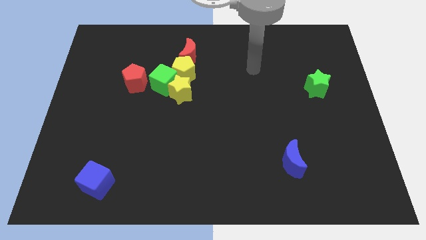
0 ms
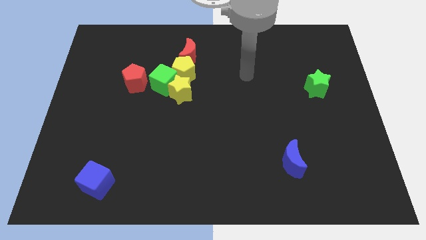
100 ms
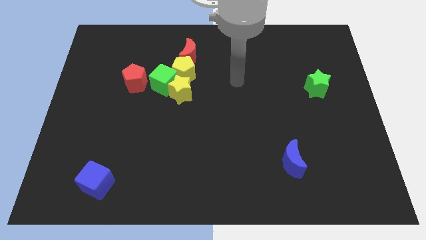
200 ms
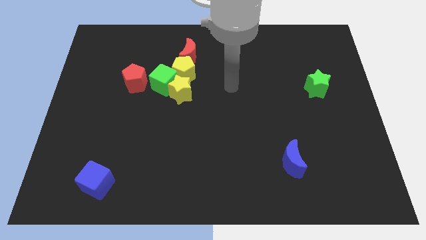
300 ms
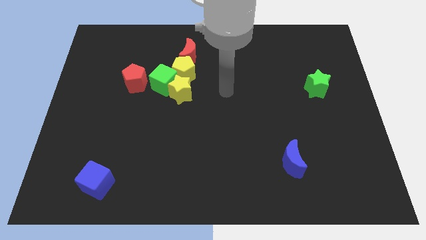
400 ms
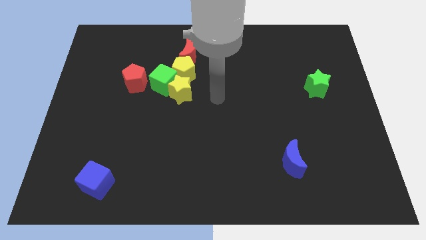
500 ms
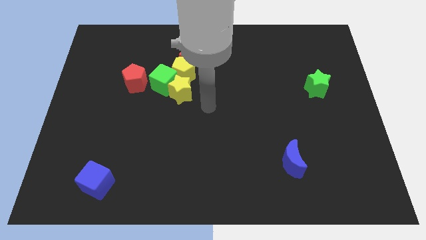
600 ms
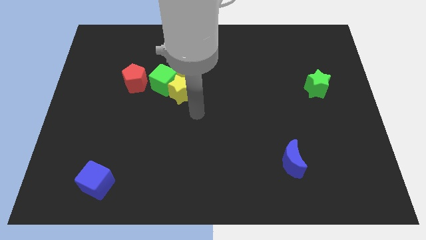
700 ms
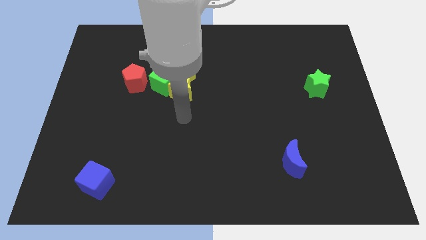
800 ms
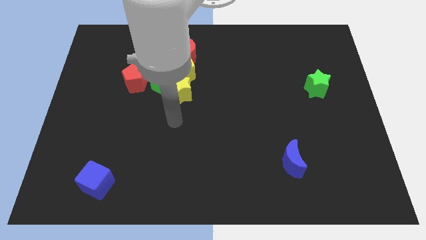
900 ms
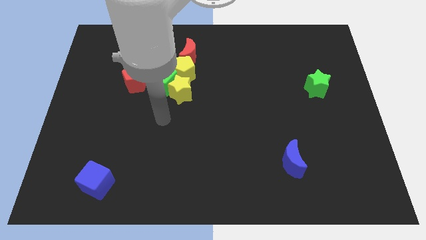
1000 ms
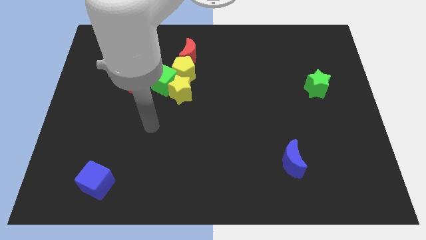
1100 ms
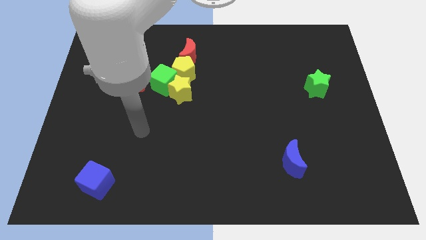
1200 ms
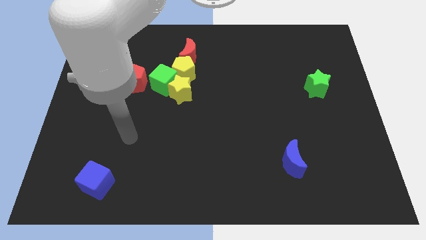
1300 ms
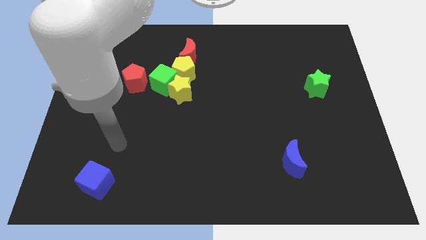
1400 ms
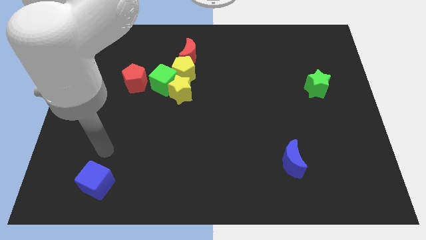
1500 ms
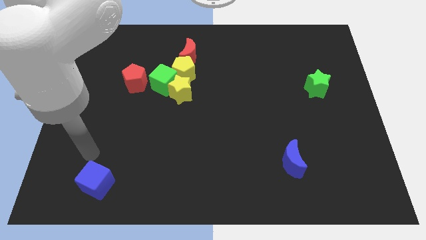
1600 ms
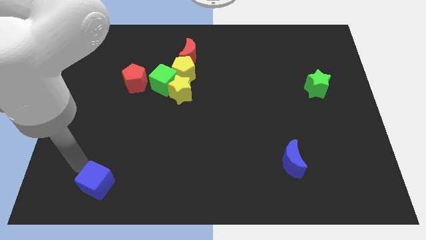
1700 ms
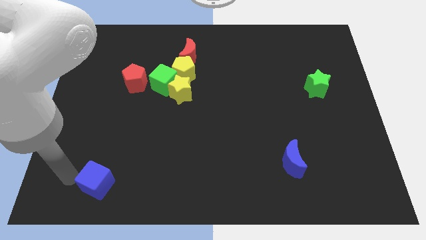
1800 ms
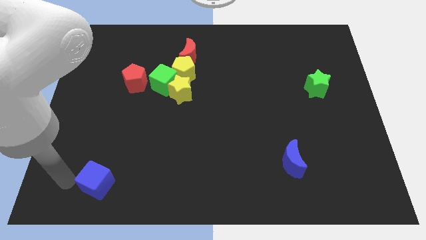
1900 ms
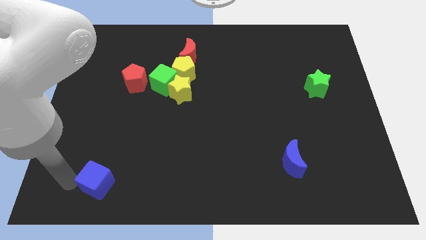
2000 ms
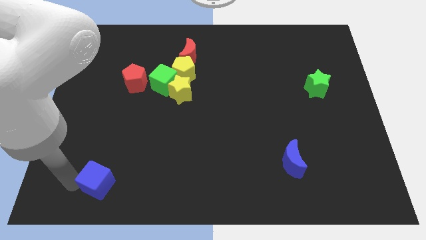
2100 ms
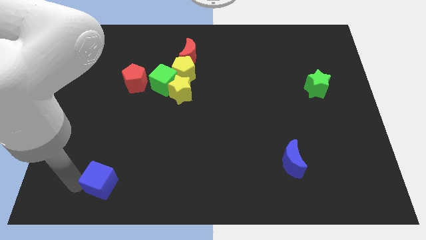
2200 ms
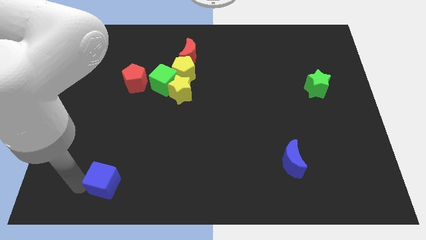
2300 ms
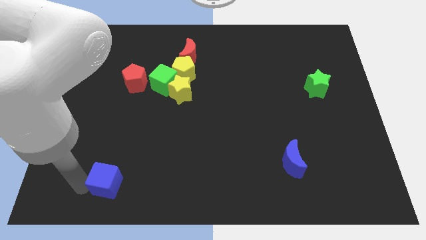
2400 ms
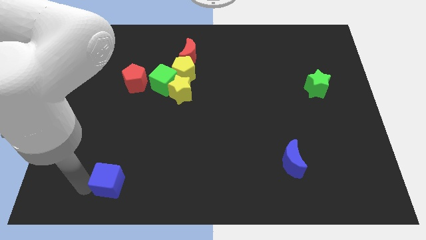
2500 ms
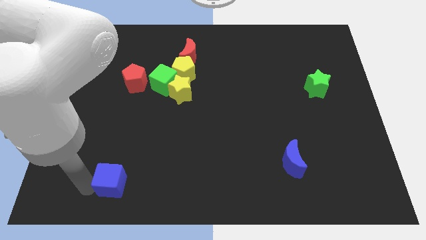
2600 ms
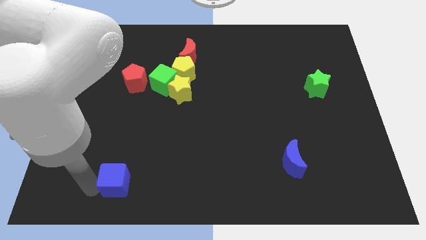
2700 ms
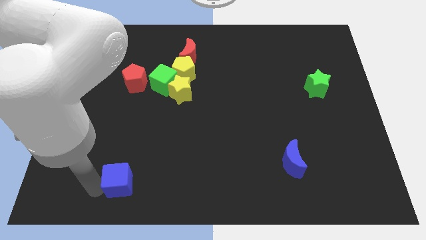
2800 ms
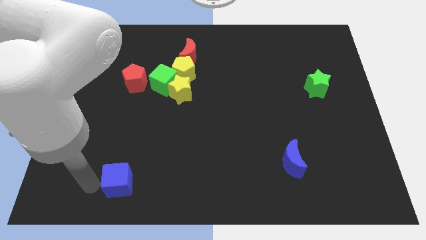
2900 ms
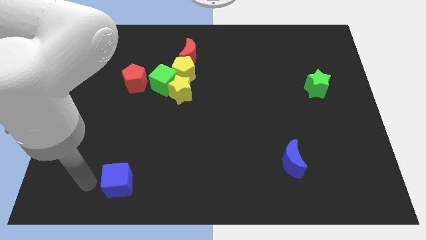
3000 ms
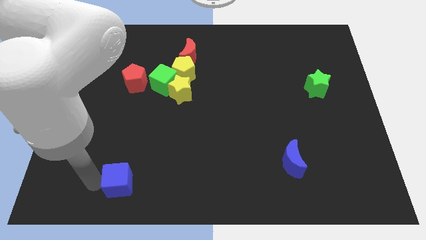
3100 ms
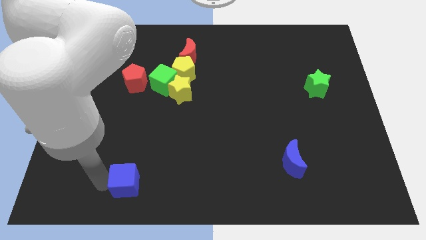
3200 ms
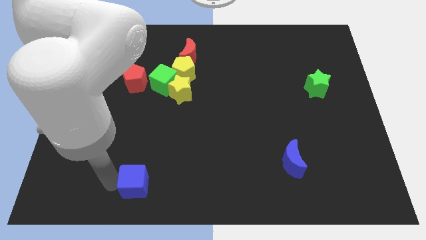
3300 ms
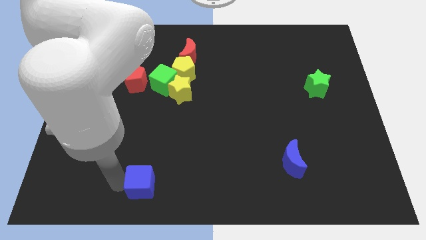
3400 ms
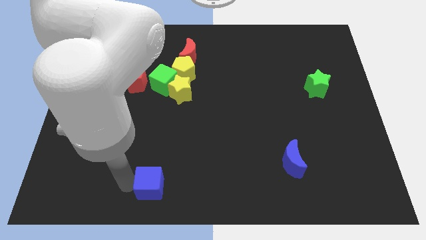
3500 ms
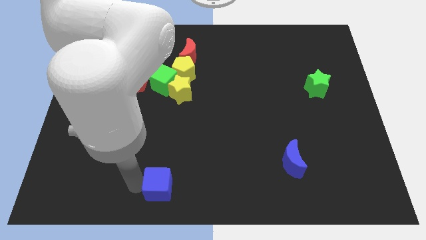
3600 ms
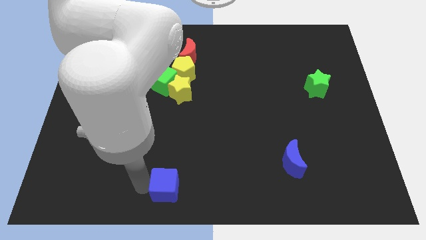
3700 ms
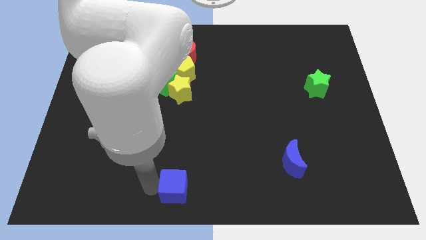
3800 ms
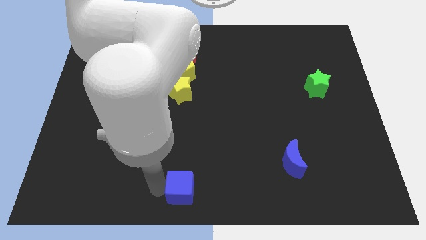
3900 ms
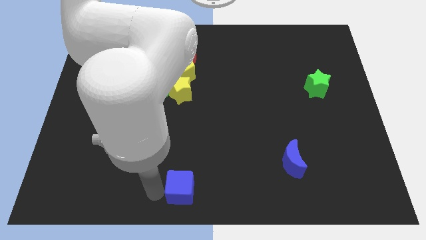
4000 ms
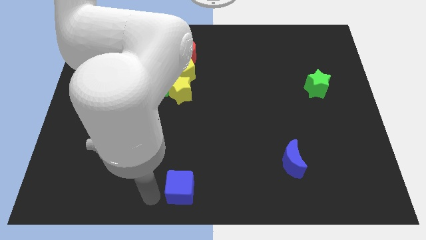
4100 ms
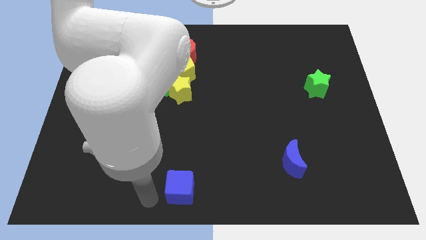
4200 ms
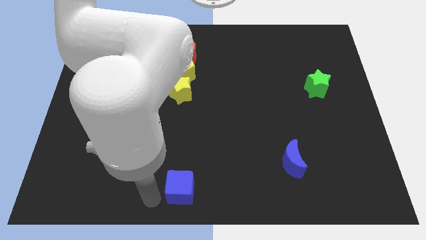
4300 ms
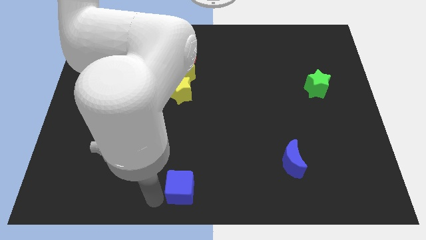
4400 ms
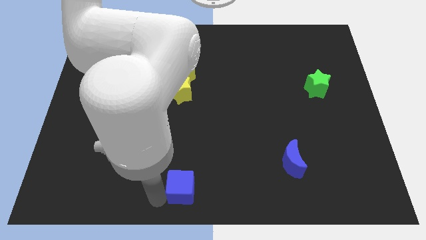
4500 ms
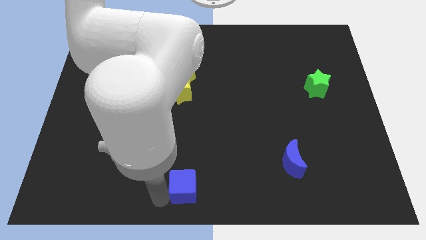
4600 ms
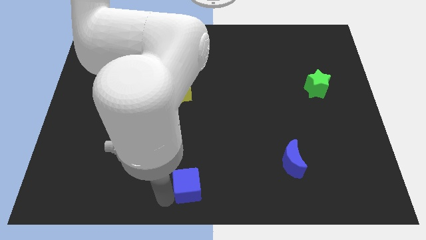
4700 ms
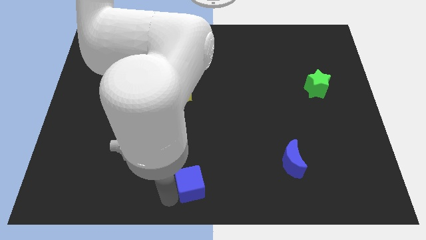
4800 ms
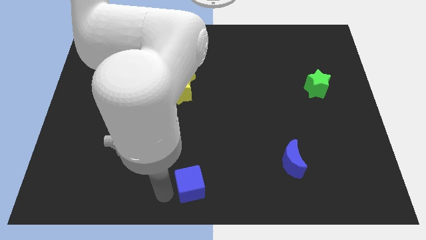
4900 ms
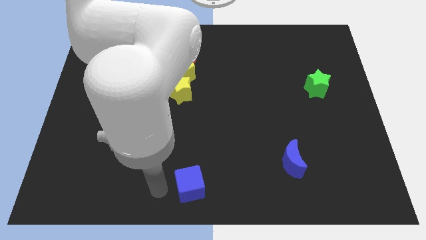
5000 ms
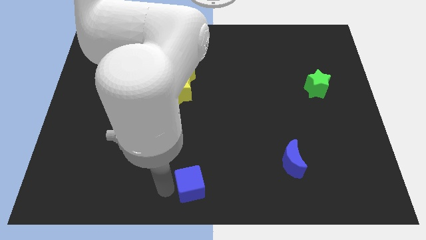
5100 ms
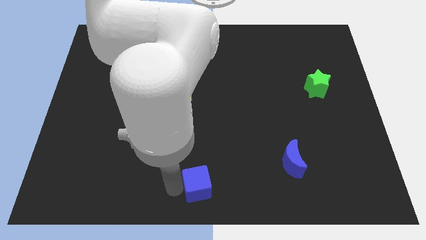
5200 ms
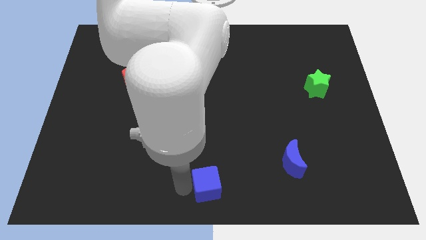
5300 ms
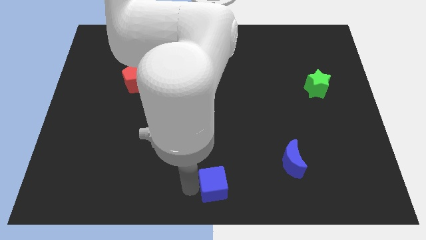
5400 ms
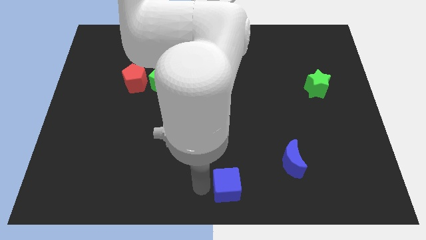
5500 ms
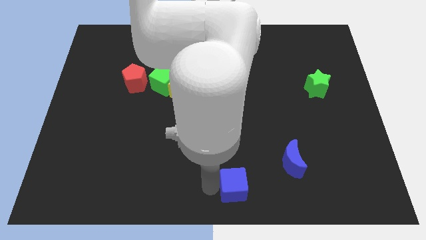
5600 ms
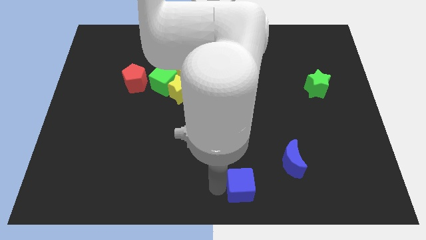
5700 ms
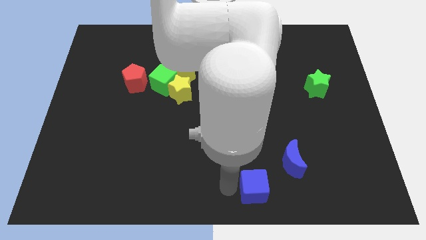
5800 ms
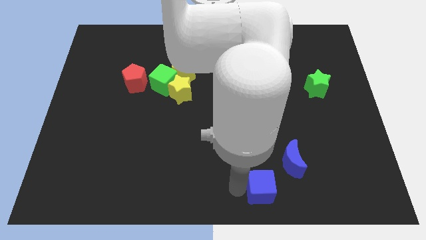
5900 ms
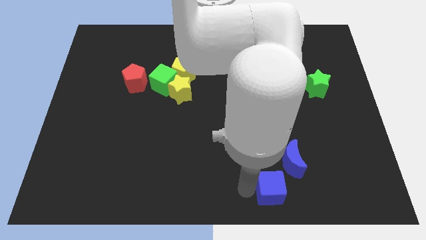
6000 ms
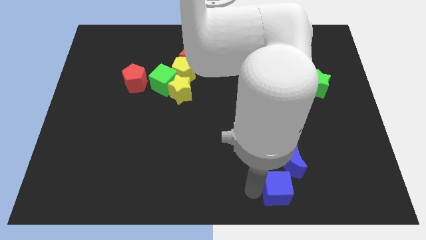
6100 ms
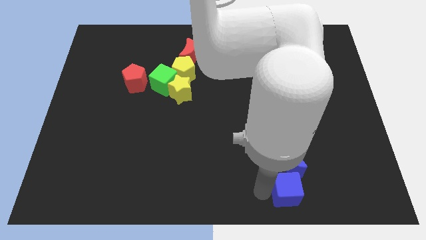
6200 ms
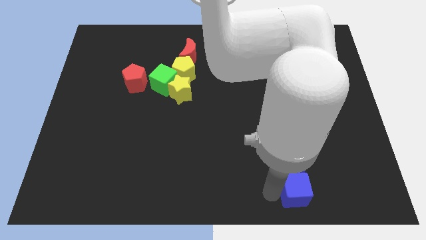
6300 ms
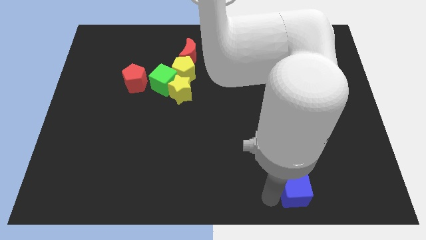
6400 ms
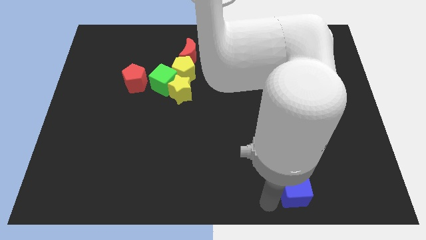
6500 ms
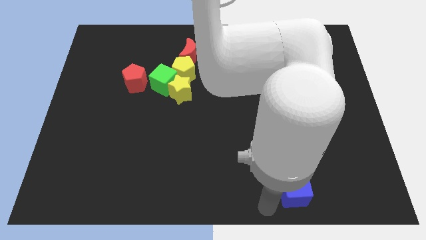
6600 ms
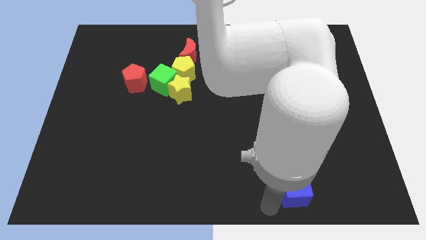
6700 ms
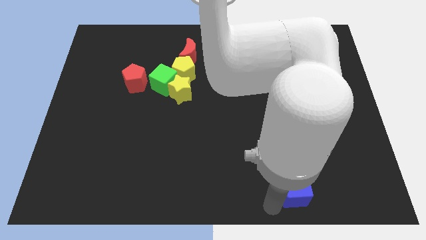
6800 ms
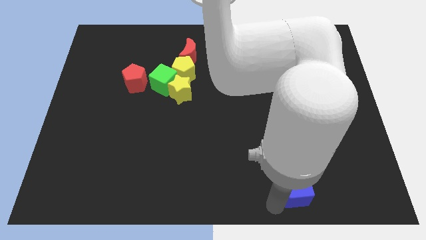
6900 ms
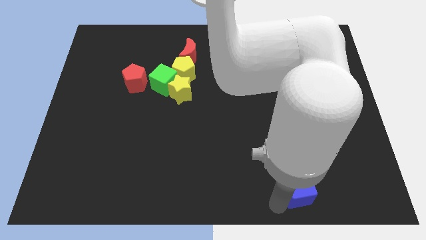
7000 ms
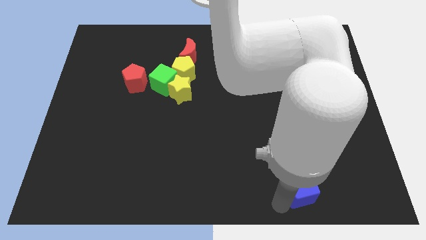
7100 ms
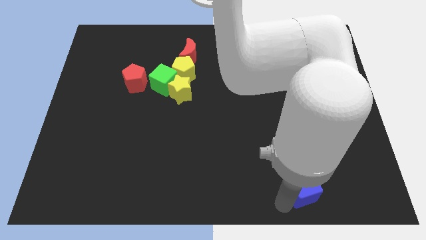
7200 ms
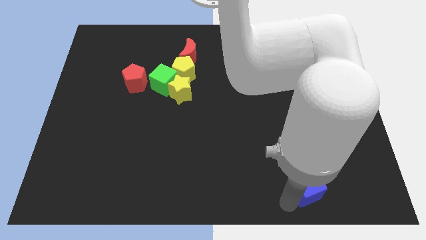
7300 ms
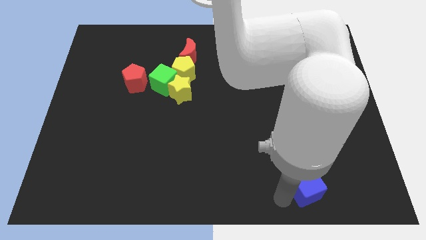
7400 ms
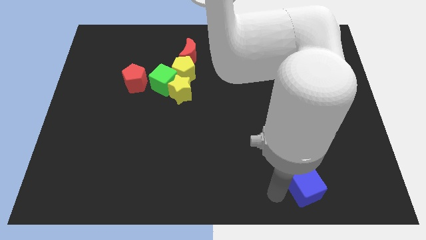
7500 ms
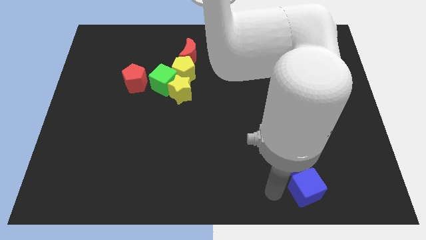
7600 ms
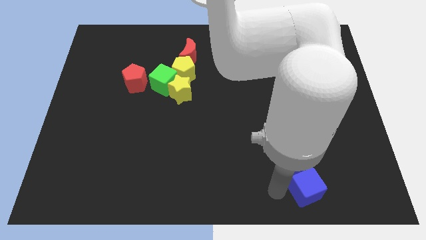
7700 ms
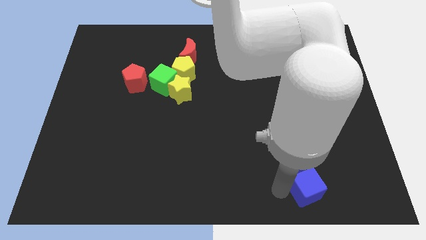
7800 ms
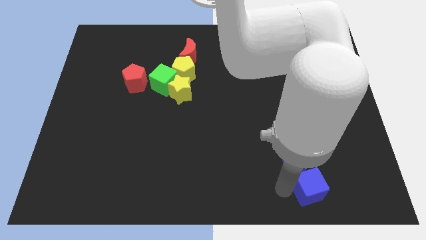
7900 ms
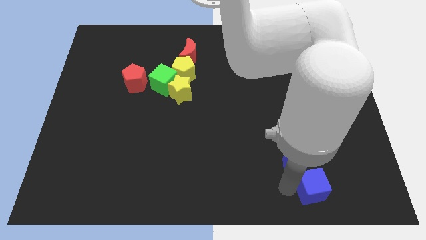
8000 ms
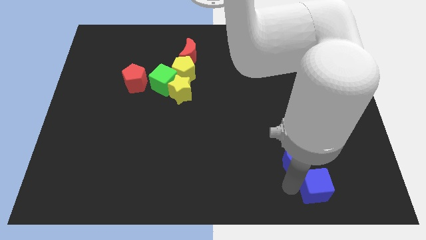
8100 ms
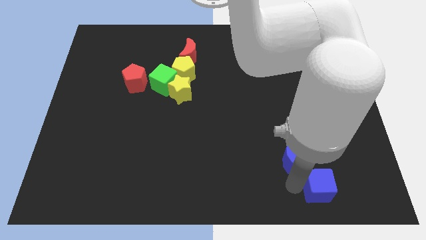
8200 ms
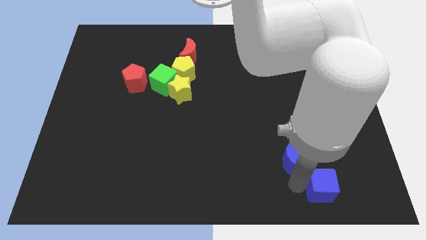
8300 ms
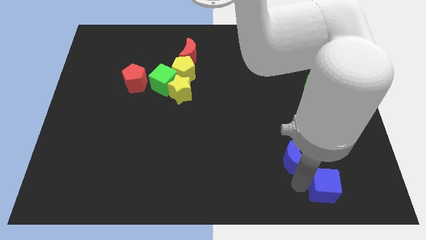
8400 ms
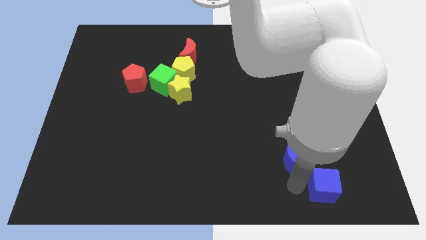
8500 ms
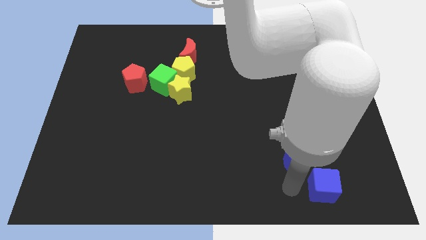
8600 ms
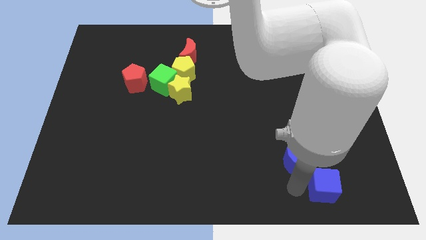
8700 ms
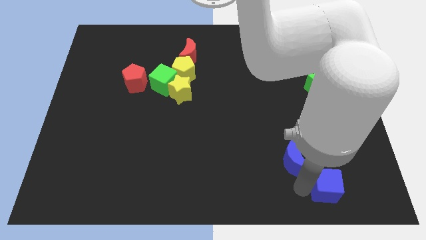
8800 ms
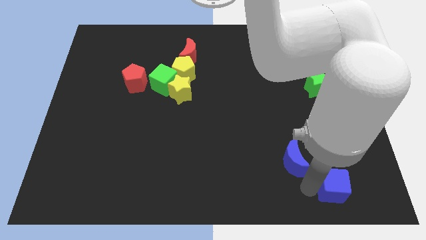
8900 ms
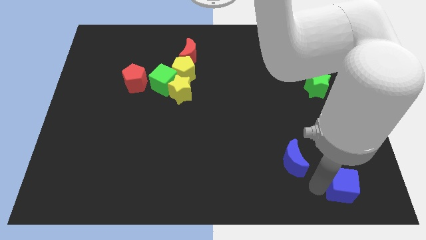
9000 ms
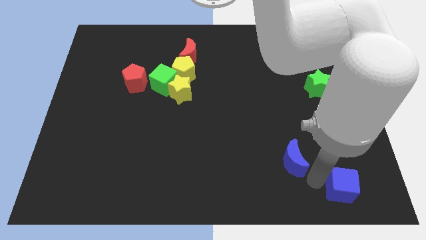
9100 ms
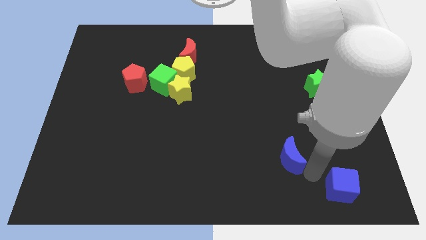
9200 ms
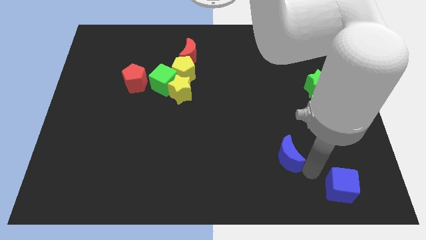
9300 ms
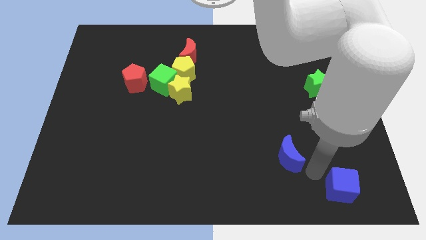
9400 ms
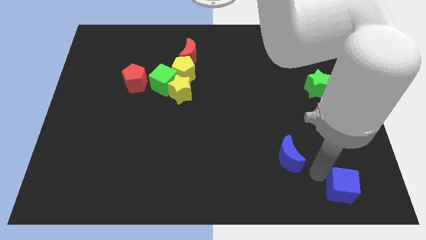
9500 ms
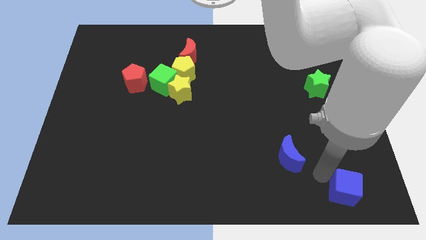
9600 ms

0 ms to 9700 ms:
move the blue cube to the lower right corner
